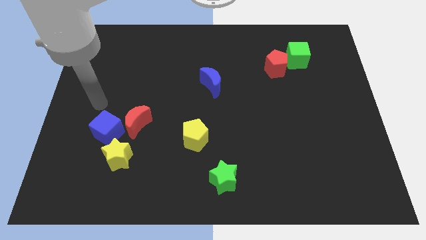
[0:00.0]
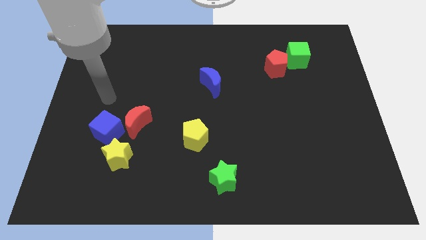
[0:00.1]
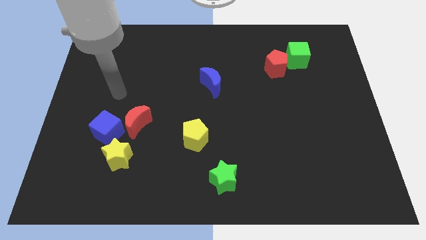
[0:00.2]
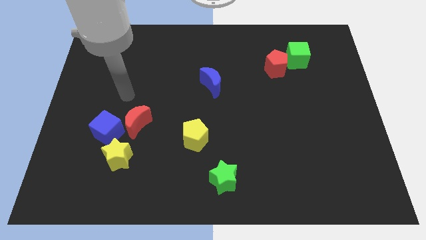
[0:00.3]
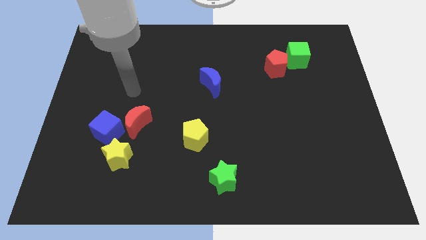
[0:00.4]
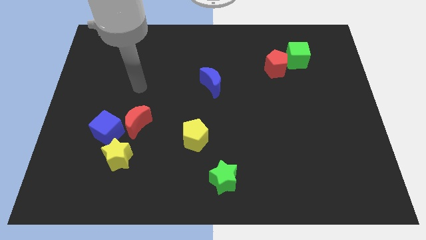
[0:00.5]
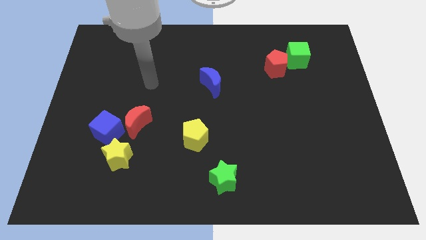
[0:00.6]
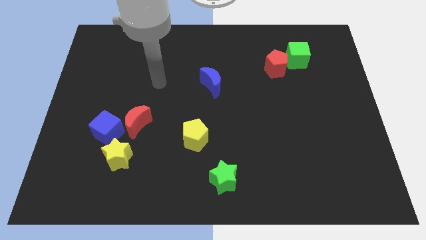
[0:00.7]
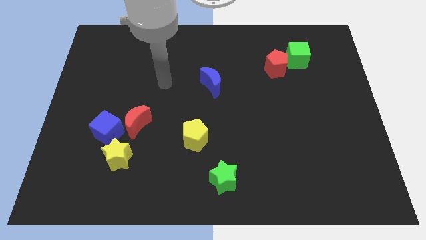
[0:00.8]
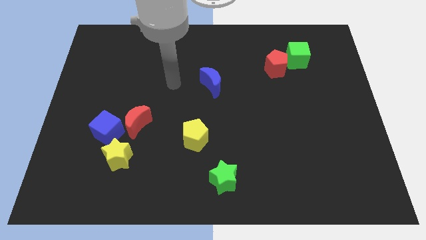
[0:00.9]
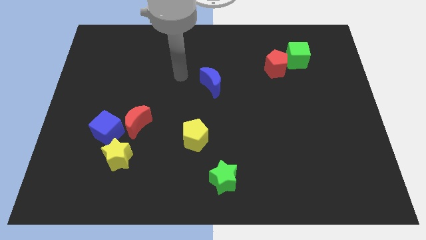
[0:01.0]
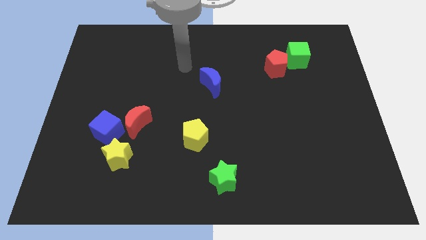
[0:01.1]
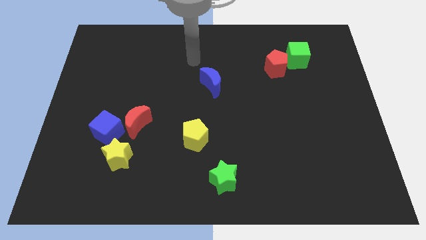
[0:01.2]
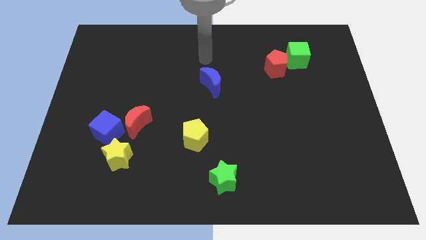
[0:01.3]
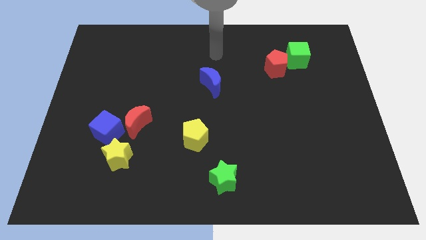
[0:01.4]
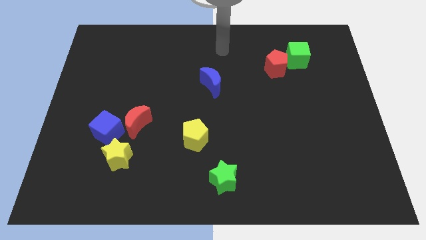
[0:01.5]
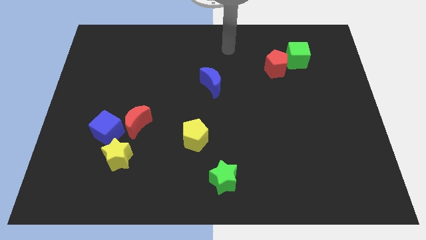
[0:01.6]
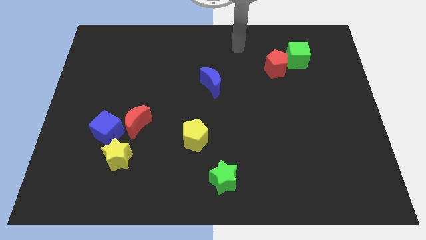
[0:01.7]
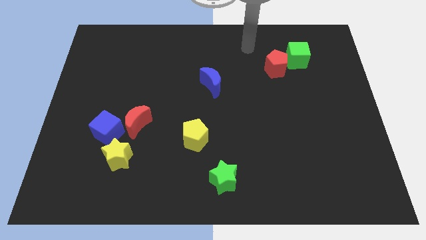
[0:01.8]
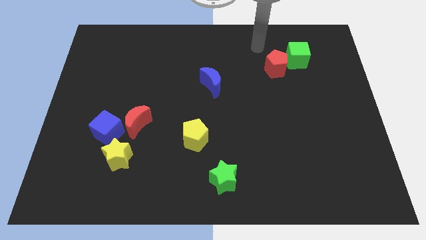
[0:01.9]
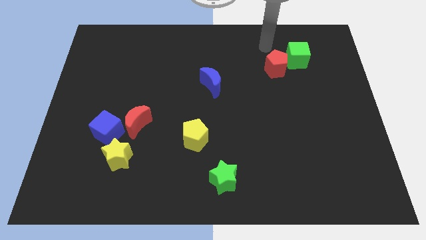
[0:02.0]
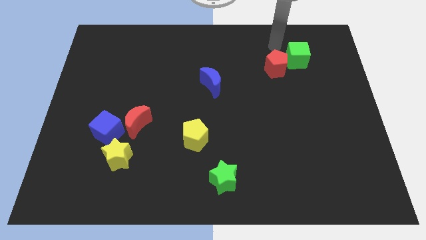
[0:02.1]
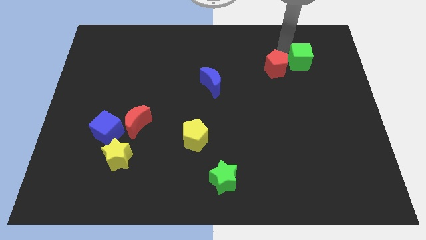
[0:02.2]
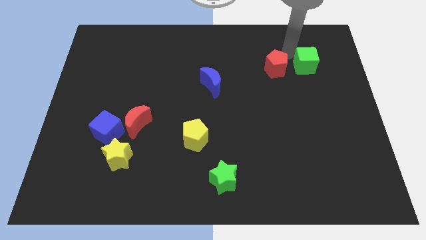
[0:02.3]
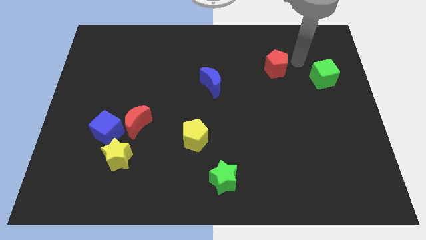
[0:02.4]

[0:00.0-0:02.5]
separate the red pentagon from the green cube

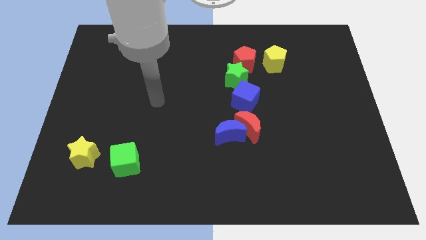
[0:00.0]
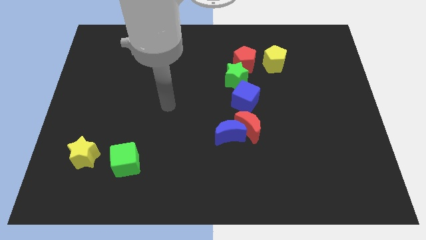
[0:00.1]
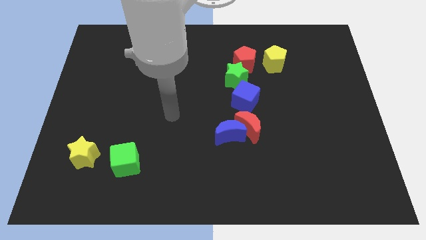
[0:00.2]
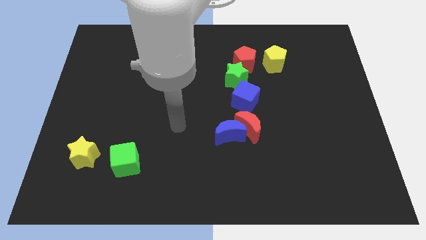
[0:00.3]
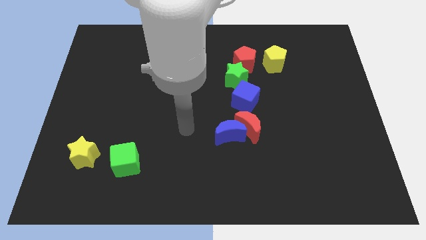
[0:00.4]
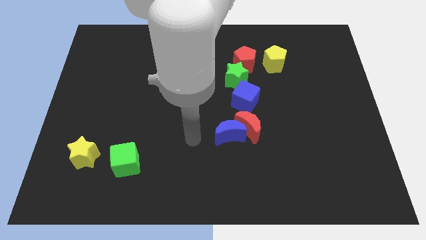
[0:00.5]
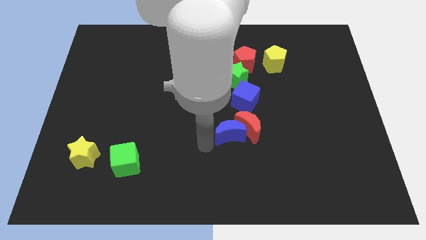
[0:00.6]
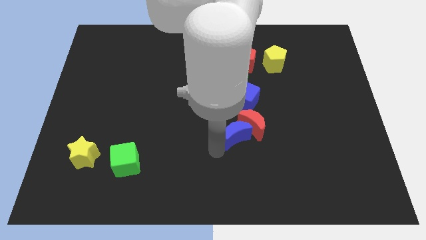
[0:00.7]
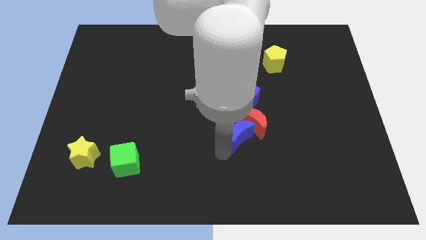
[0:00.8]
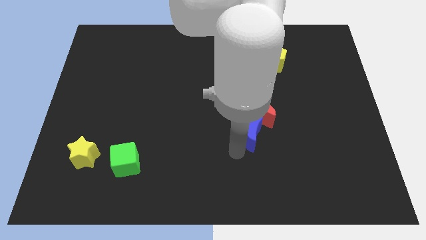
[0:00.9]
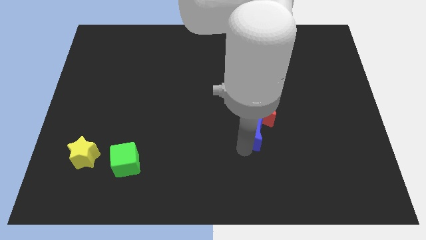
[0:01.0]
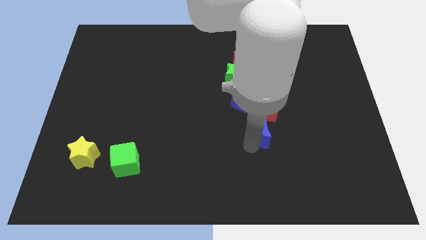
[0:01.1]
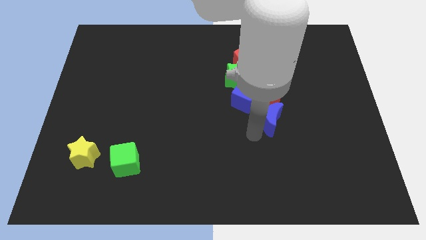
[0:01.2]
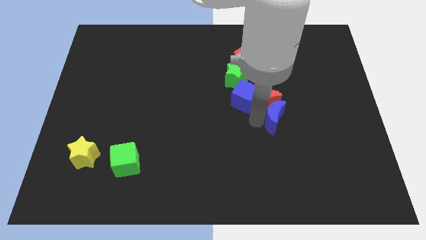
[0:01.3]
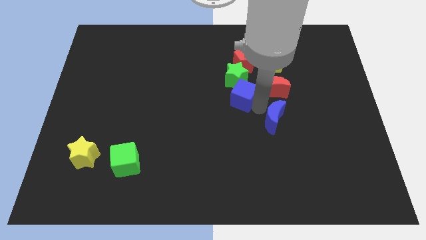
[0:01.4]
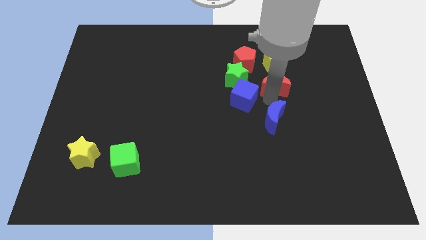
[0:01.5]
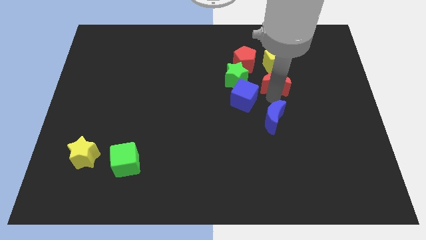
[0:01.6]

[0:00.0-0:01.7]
pull the blue moon apart from the red moon

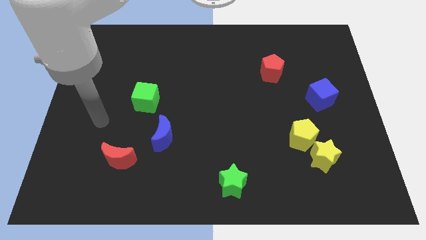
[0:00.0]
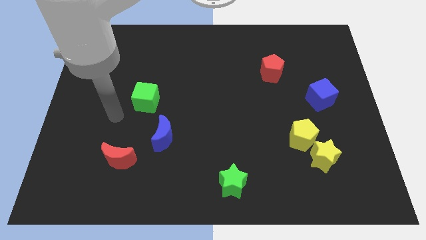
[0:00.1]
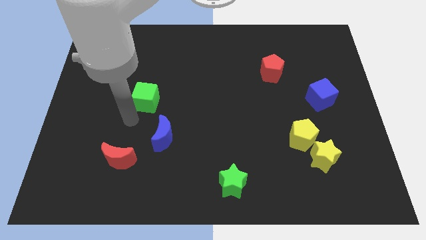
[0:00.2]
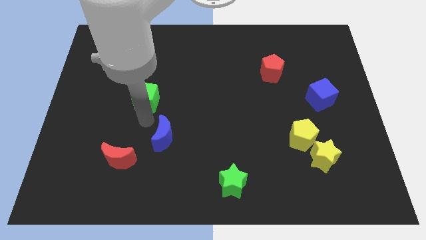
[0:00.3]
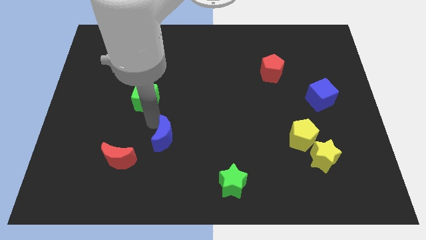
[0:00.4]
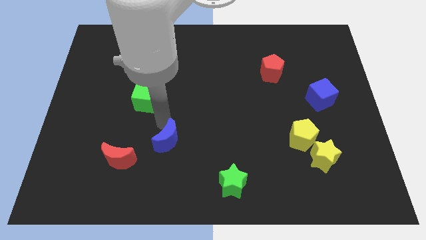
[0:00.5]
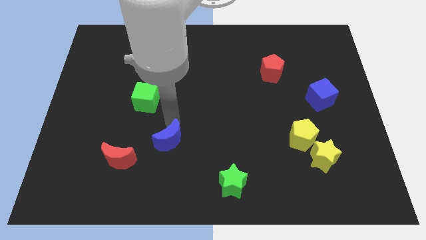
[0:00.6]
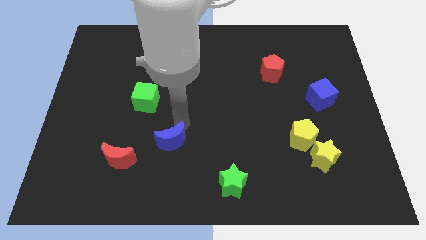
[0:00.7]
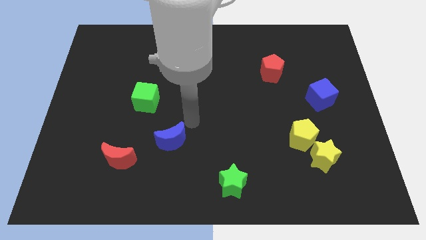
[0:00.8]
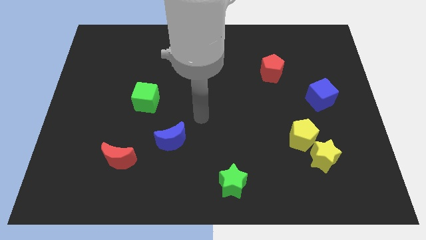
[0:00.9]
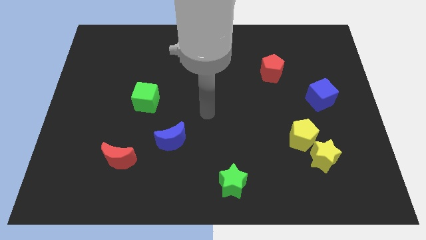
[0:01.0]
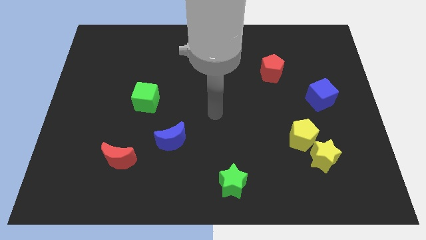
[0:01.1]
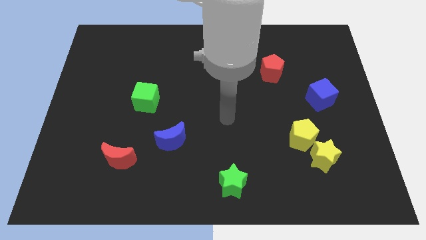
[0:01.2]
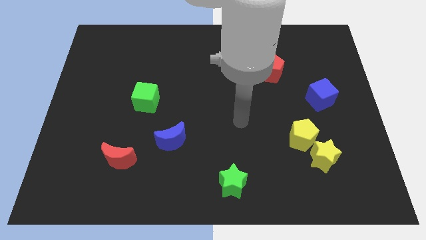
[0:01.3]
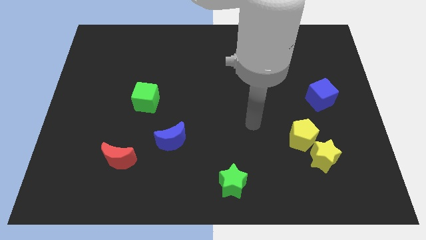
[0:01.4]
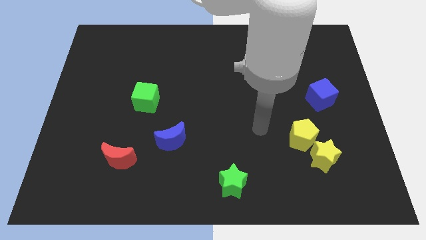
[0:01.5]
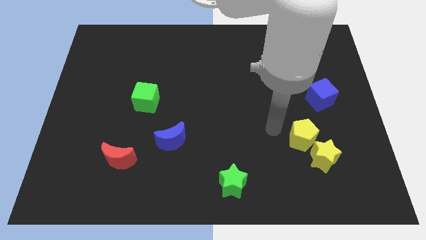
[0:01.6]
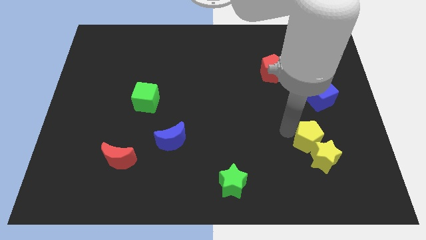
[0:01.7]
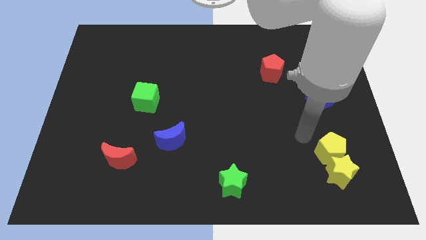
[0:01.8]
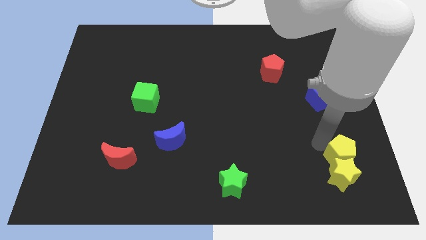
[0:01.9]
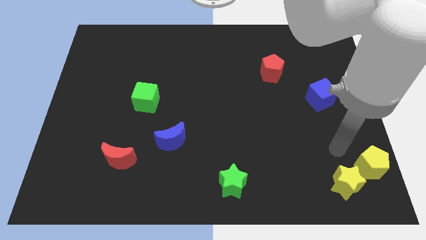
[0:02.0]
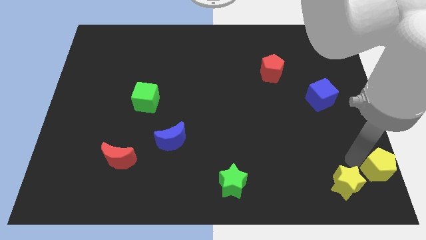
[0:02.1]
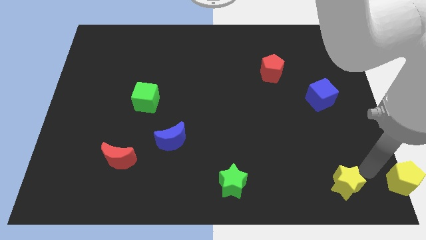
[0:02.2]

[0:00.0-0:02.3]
move the yellow star away from the yellow pentagon

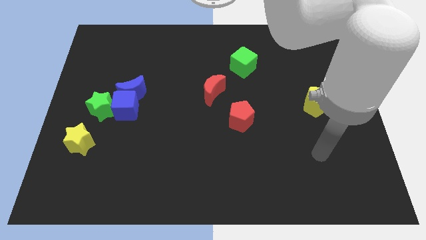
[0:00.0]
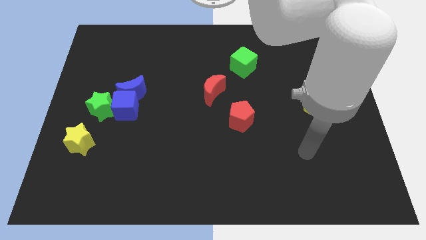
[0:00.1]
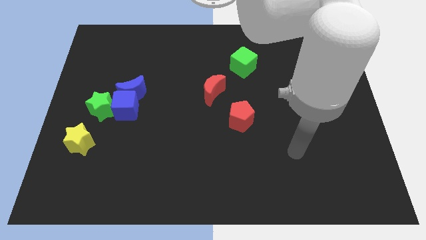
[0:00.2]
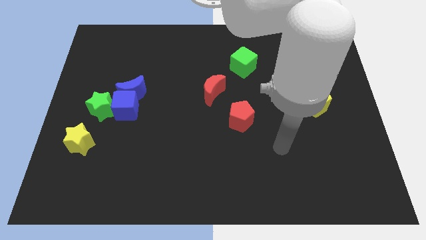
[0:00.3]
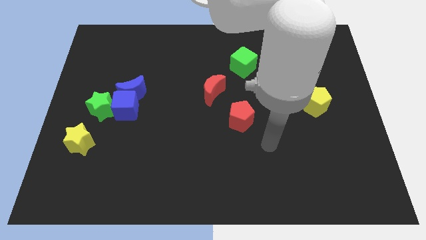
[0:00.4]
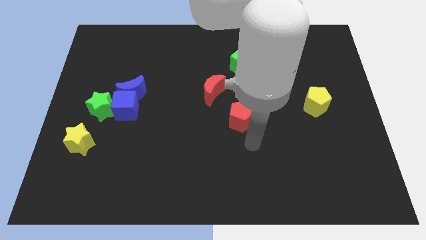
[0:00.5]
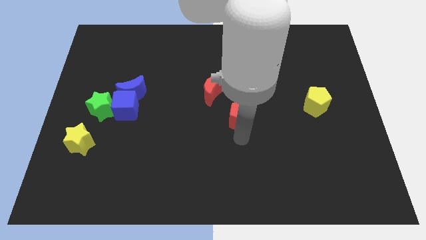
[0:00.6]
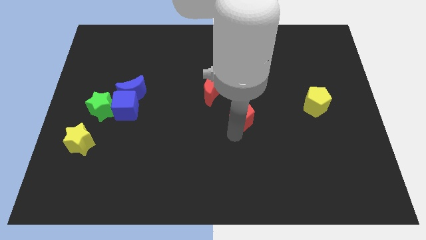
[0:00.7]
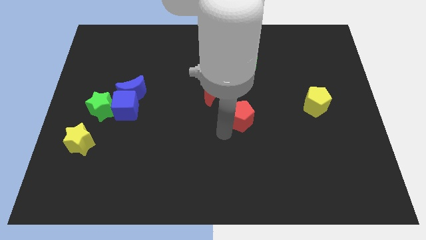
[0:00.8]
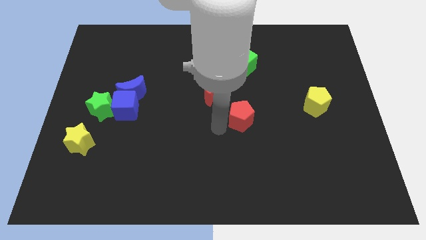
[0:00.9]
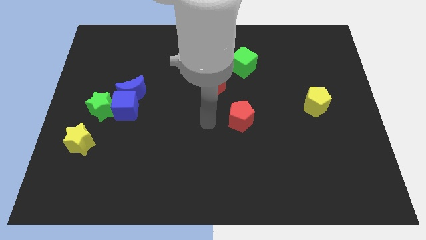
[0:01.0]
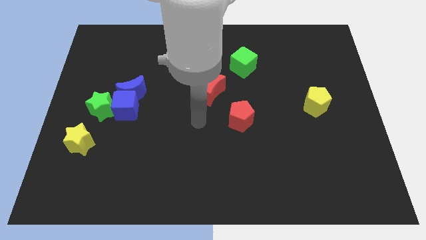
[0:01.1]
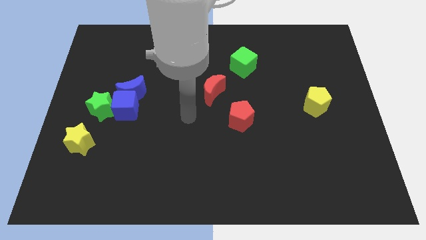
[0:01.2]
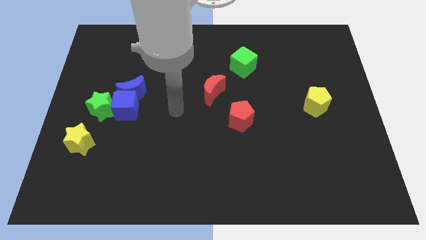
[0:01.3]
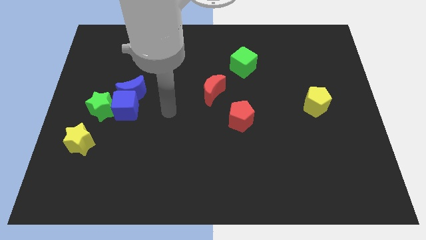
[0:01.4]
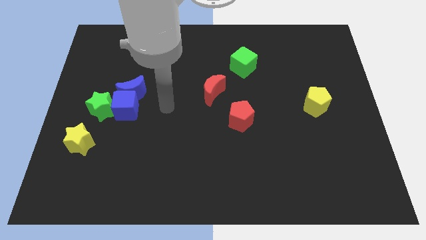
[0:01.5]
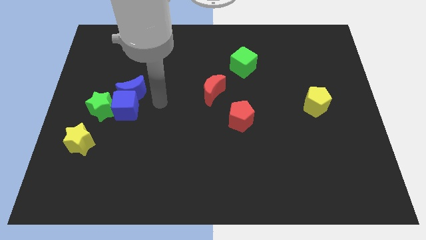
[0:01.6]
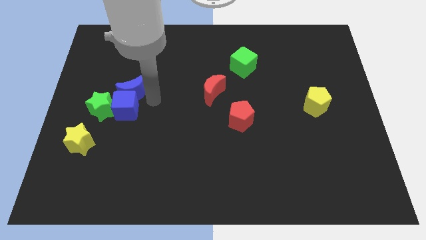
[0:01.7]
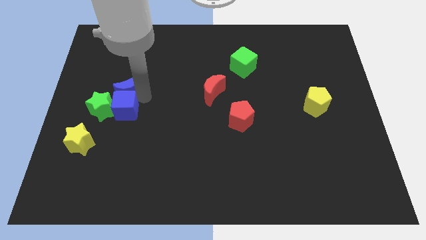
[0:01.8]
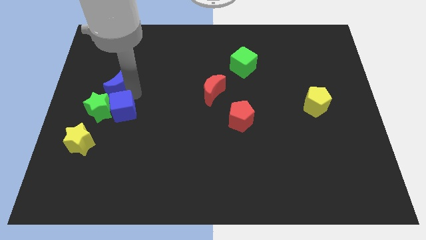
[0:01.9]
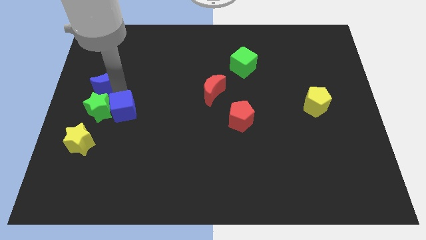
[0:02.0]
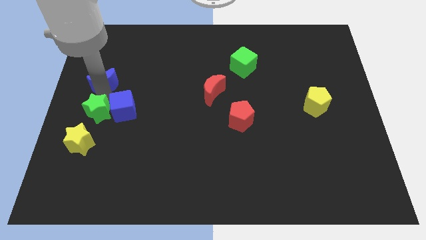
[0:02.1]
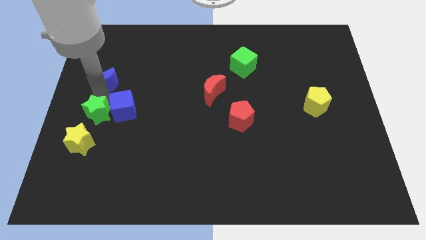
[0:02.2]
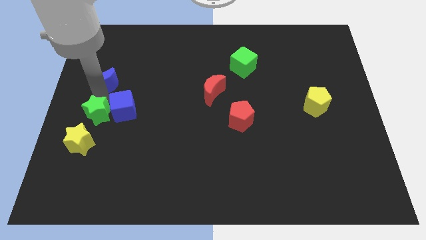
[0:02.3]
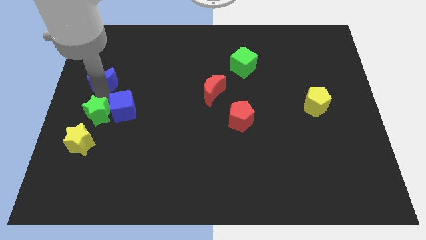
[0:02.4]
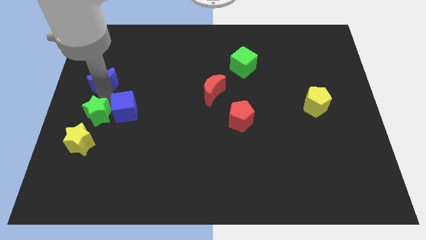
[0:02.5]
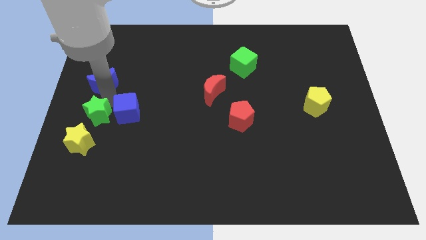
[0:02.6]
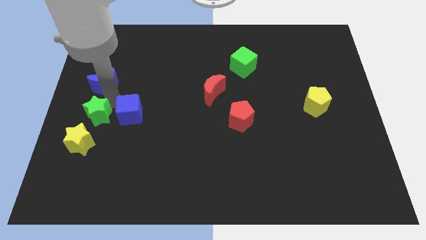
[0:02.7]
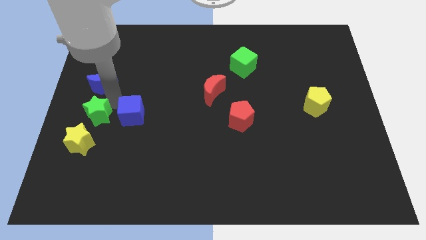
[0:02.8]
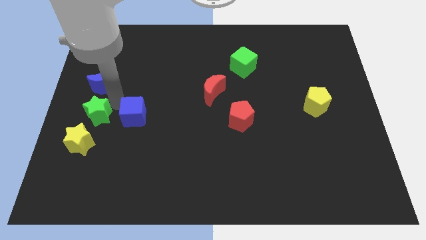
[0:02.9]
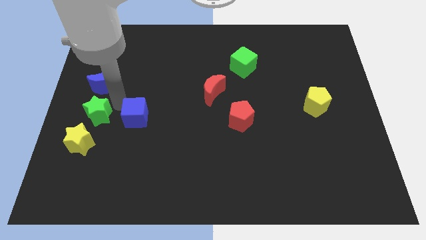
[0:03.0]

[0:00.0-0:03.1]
move the blue cube away from the blue moon and green star
